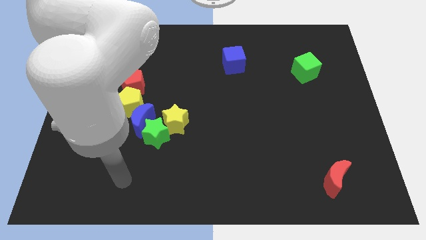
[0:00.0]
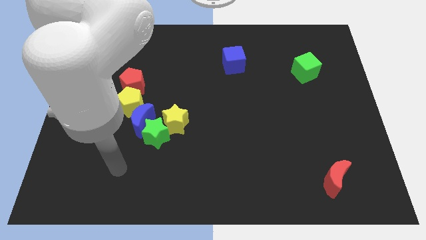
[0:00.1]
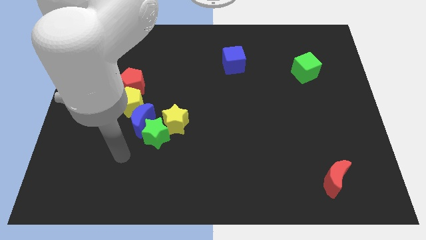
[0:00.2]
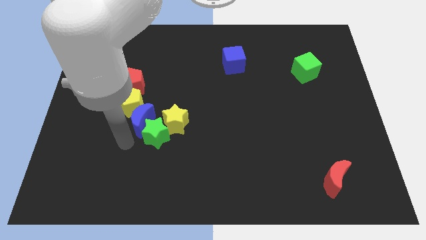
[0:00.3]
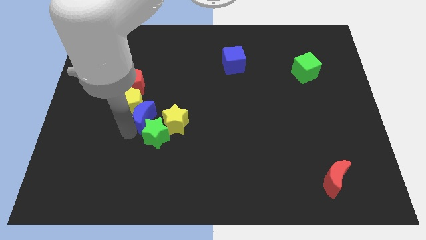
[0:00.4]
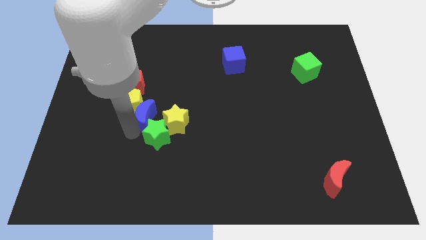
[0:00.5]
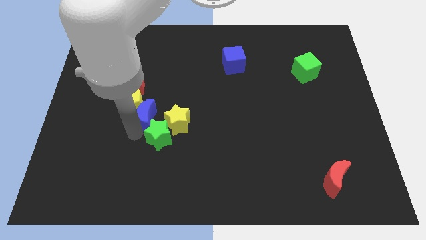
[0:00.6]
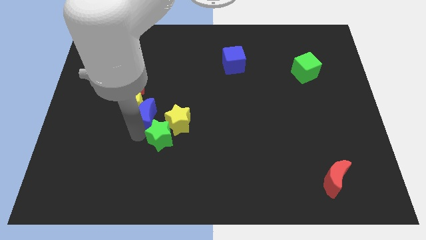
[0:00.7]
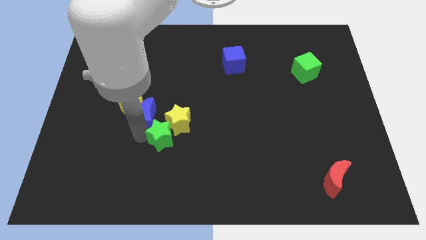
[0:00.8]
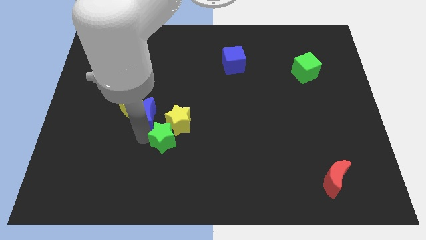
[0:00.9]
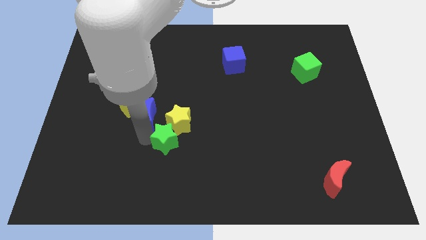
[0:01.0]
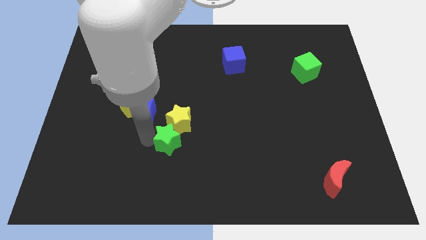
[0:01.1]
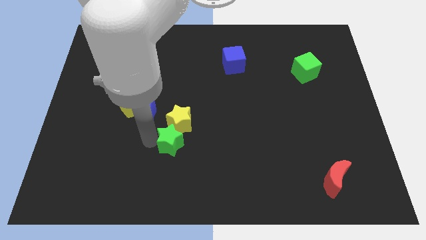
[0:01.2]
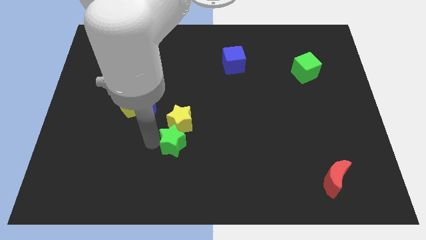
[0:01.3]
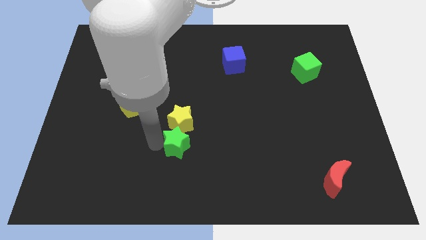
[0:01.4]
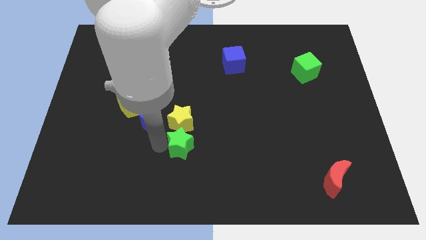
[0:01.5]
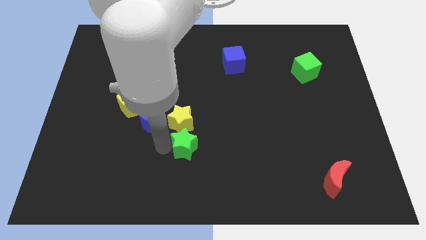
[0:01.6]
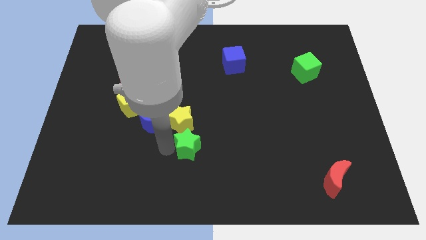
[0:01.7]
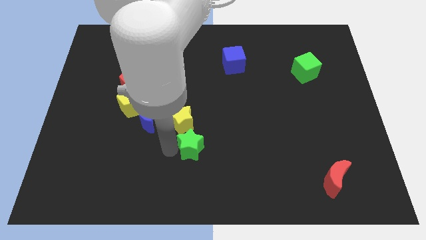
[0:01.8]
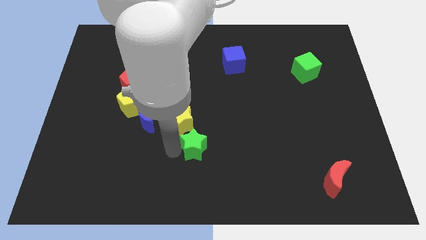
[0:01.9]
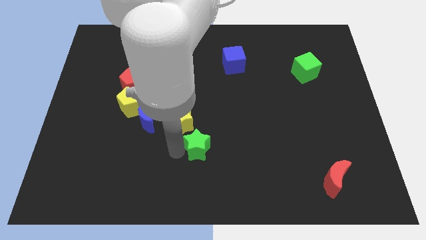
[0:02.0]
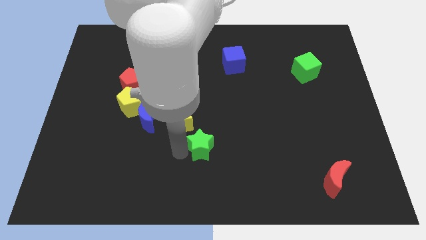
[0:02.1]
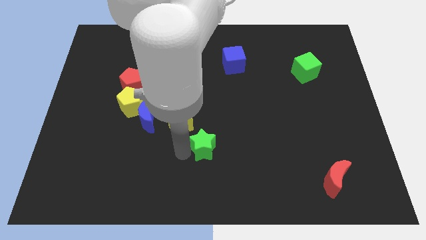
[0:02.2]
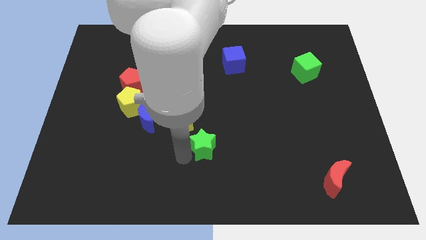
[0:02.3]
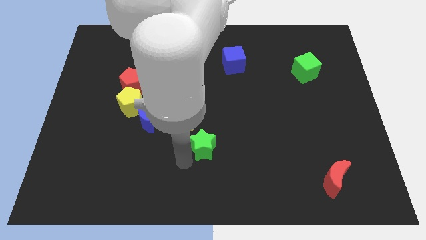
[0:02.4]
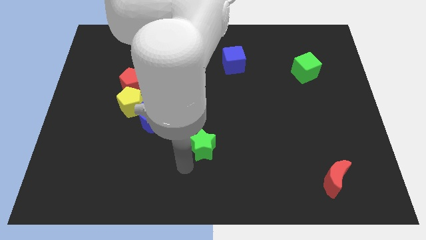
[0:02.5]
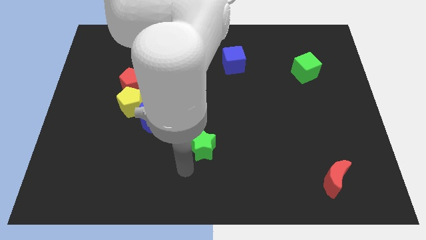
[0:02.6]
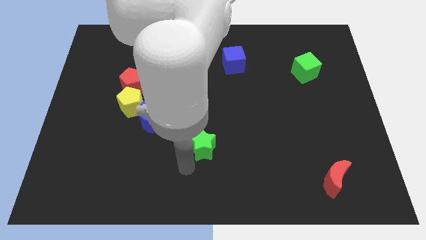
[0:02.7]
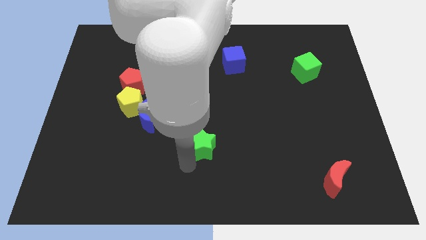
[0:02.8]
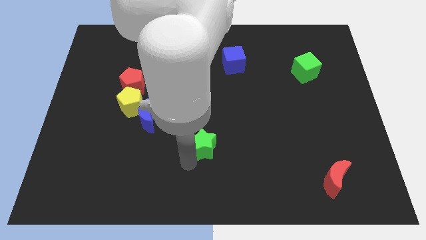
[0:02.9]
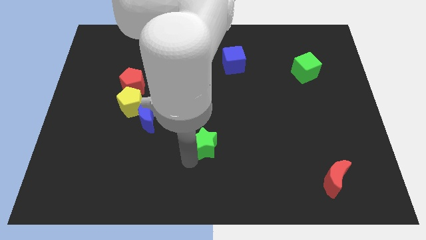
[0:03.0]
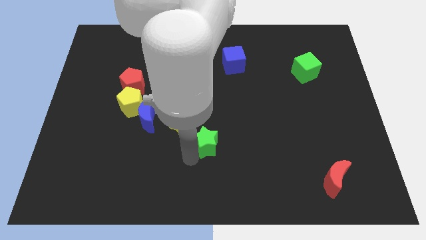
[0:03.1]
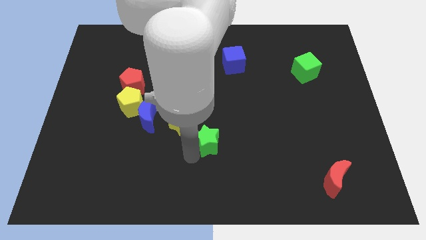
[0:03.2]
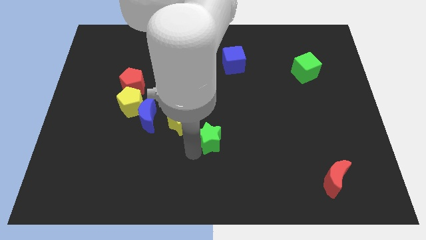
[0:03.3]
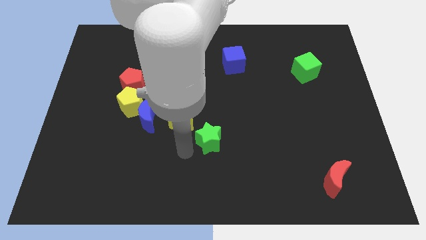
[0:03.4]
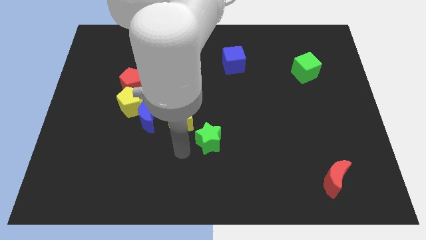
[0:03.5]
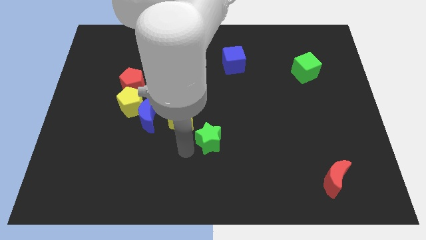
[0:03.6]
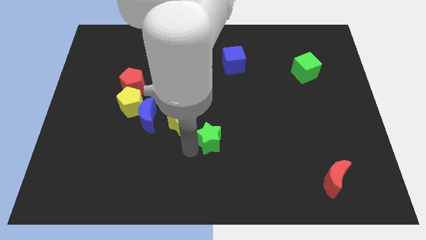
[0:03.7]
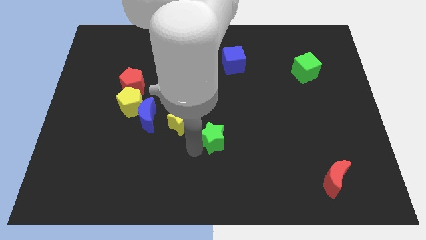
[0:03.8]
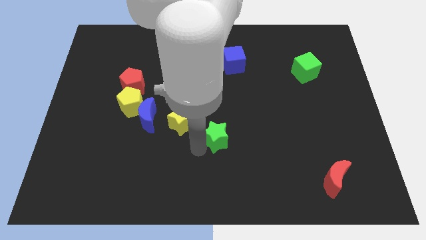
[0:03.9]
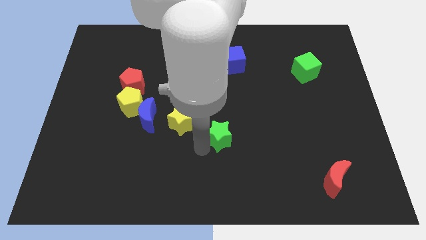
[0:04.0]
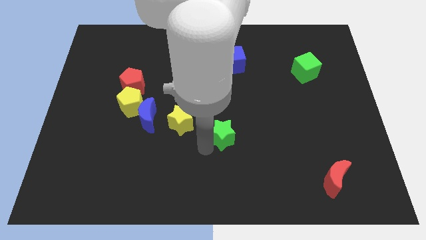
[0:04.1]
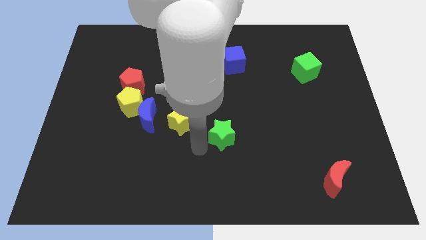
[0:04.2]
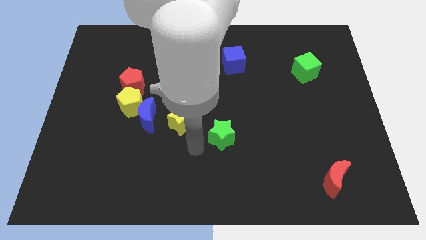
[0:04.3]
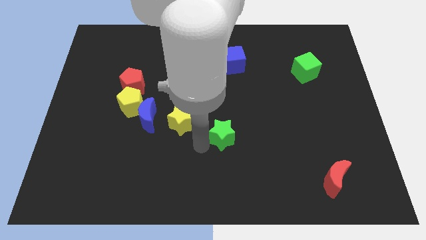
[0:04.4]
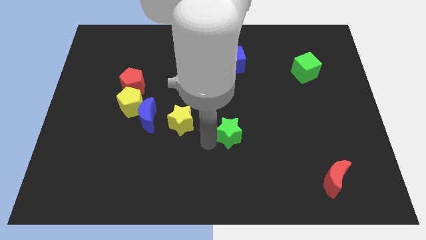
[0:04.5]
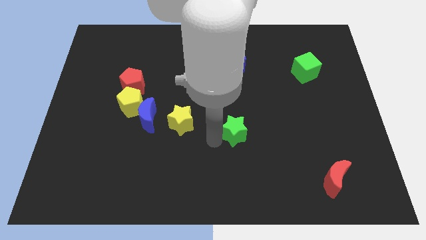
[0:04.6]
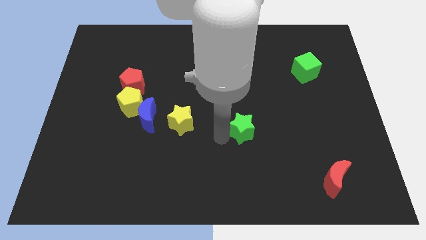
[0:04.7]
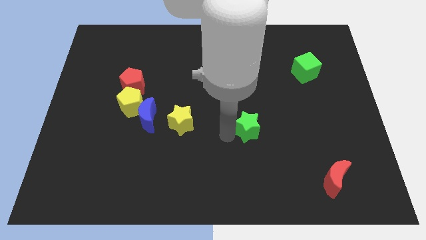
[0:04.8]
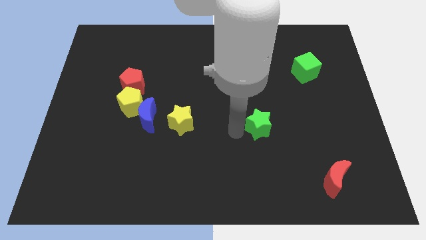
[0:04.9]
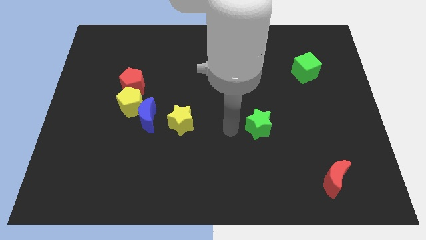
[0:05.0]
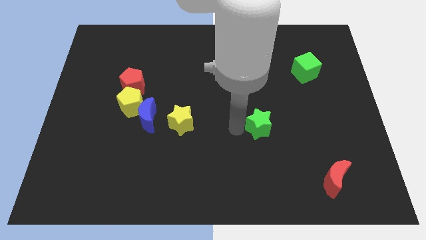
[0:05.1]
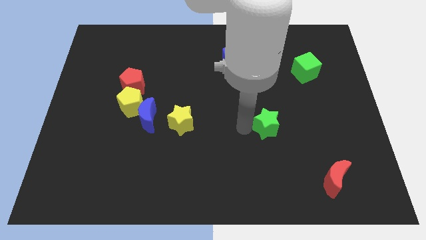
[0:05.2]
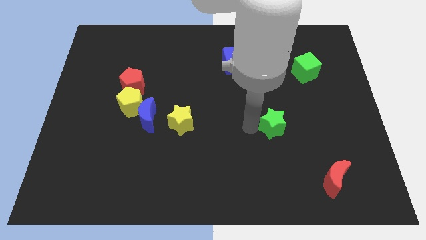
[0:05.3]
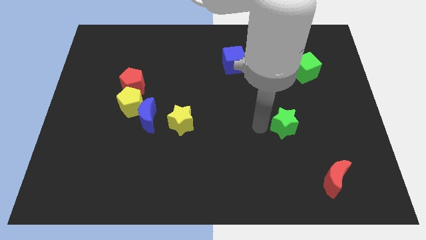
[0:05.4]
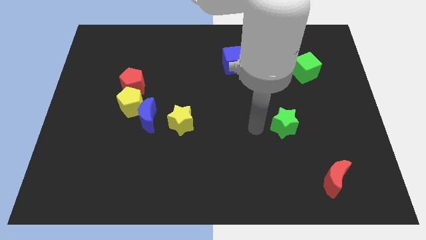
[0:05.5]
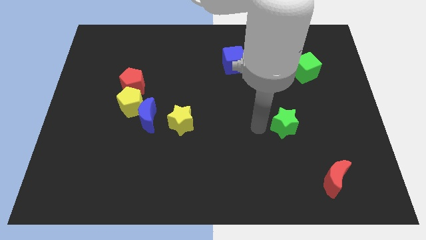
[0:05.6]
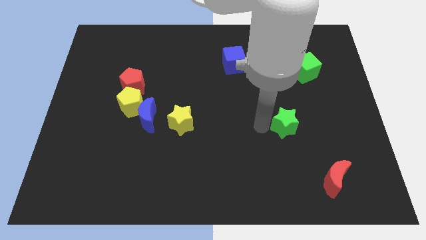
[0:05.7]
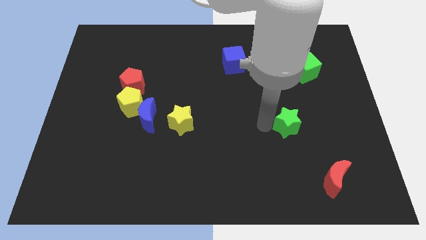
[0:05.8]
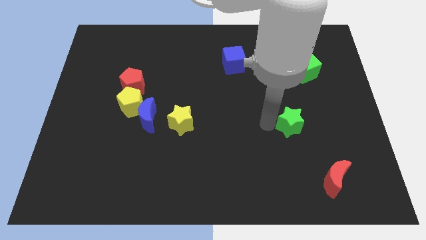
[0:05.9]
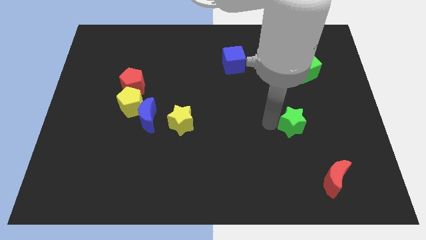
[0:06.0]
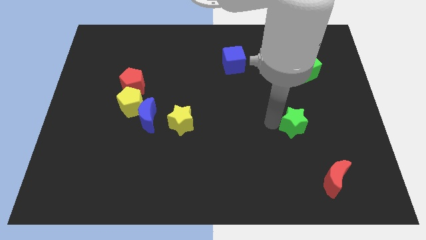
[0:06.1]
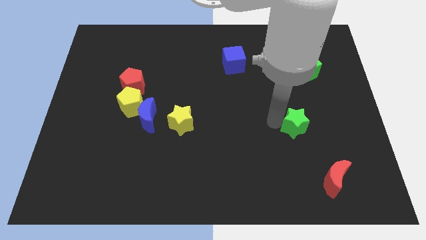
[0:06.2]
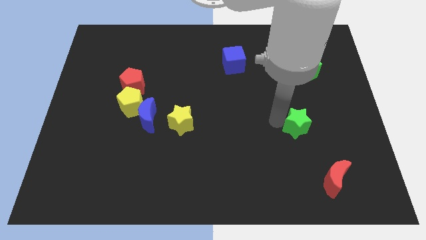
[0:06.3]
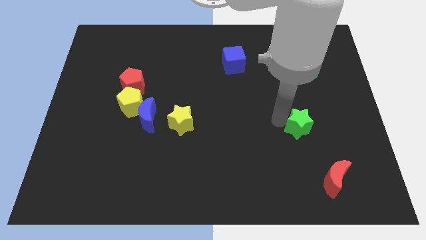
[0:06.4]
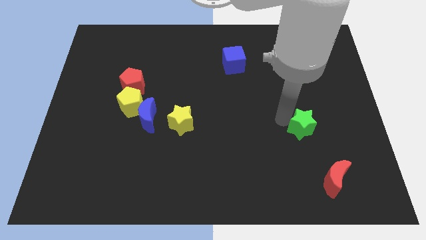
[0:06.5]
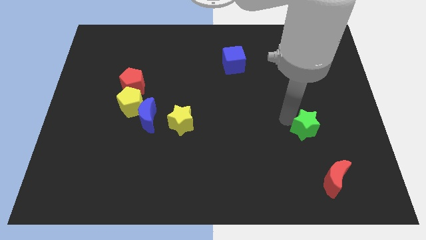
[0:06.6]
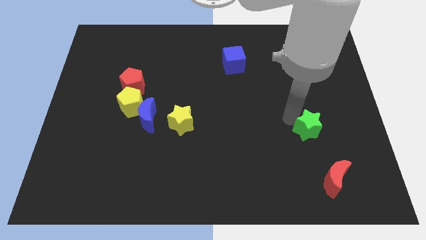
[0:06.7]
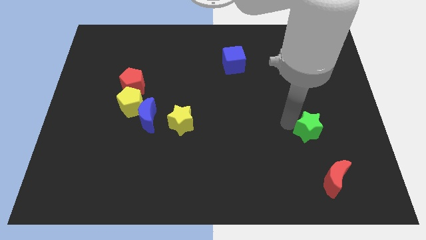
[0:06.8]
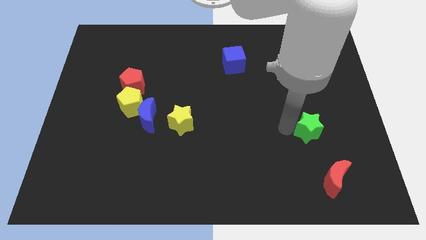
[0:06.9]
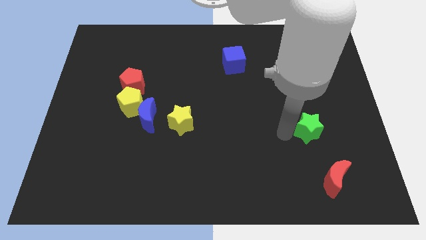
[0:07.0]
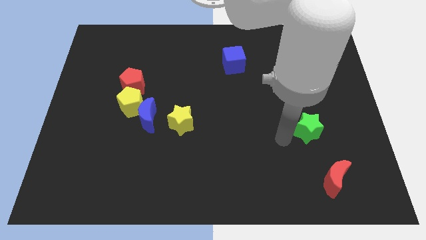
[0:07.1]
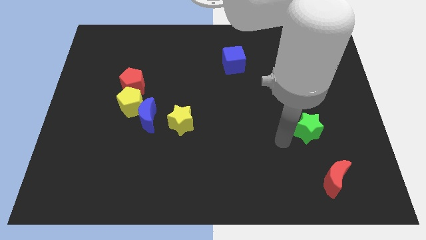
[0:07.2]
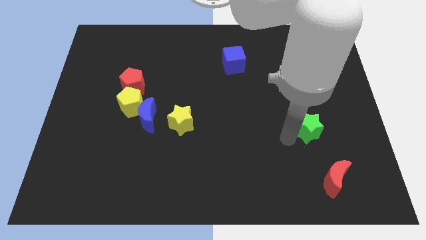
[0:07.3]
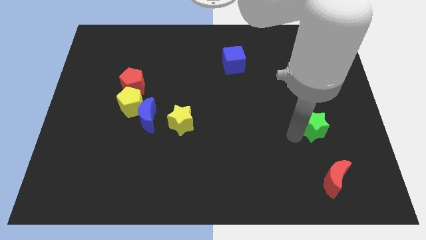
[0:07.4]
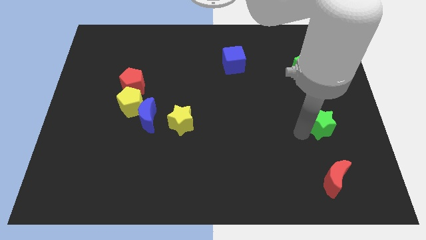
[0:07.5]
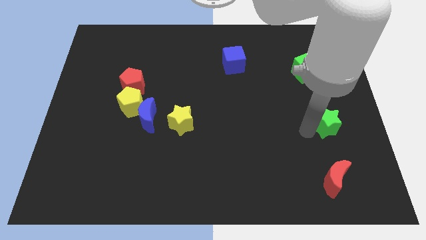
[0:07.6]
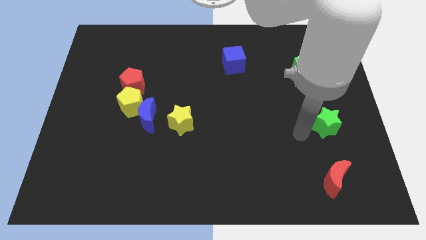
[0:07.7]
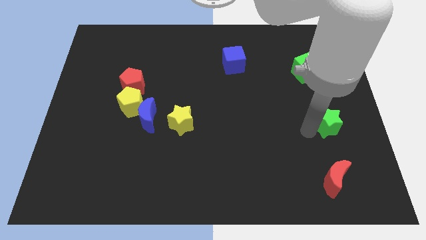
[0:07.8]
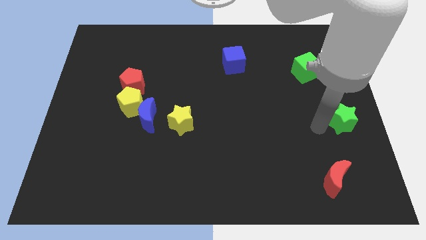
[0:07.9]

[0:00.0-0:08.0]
put the green star to the right side
